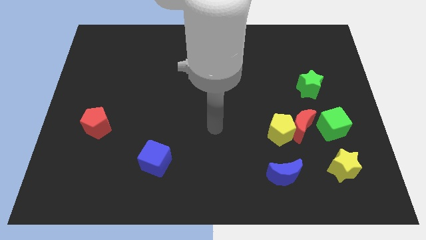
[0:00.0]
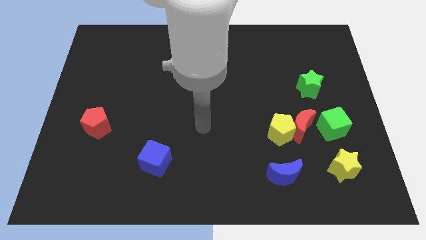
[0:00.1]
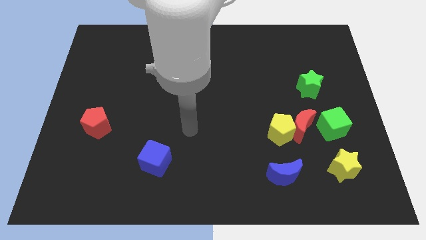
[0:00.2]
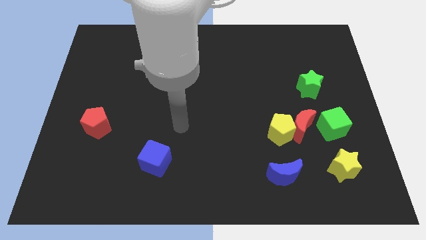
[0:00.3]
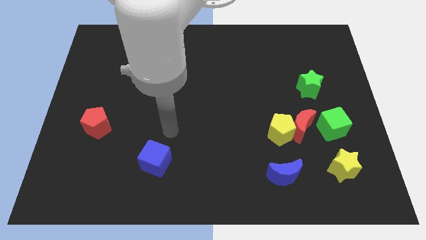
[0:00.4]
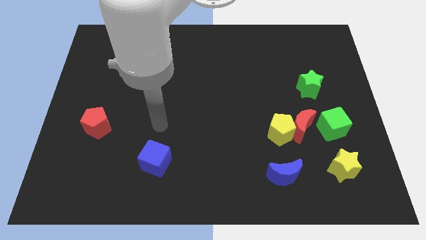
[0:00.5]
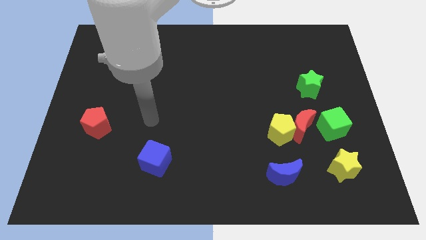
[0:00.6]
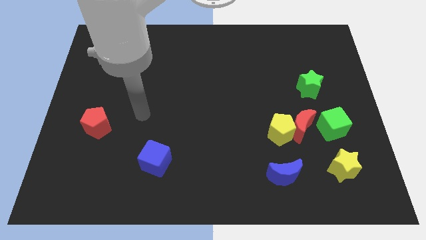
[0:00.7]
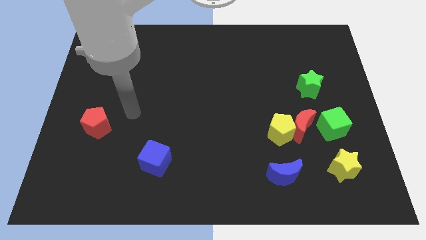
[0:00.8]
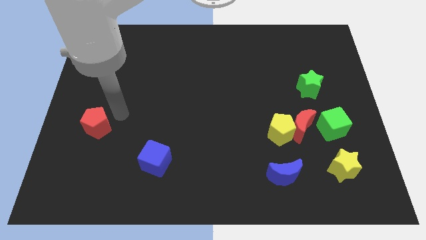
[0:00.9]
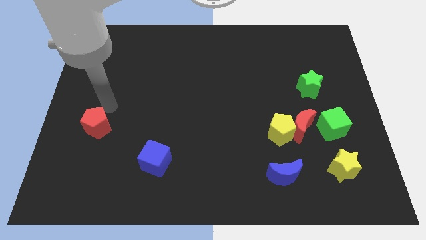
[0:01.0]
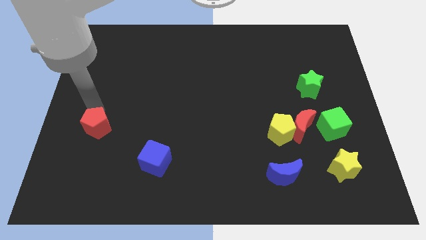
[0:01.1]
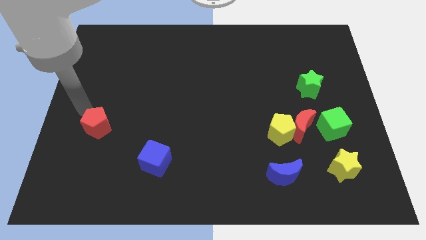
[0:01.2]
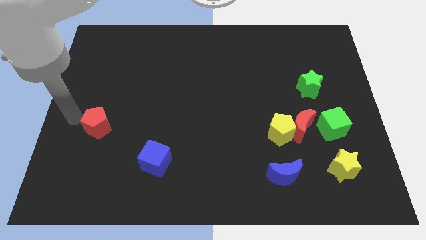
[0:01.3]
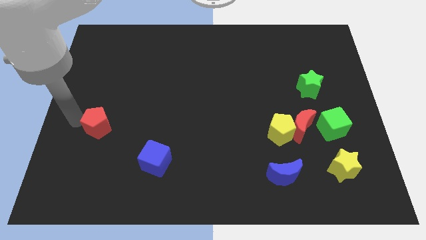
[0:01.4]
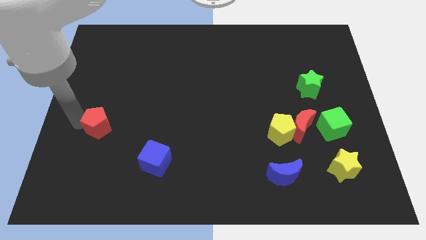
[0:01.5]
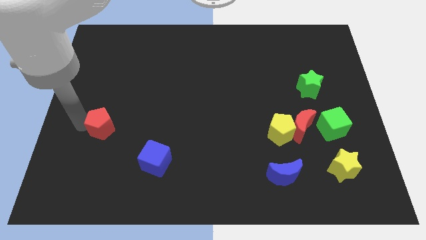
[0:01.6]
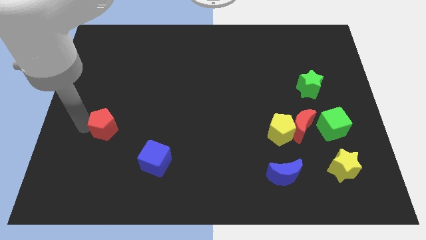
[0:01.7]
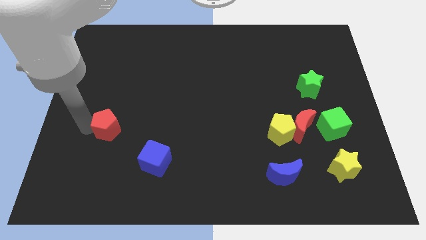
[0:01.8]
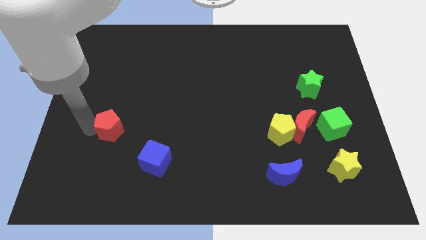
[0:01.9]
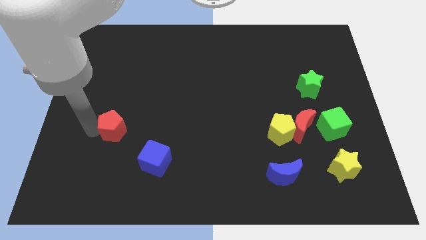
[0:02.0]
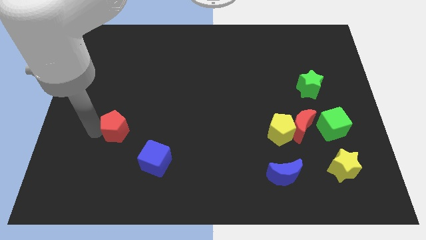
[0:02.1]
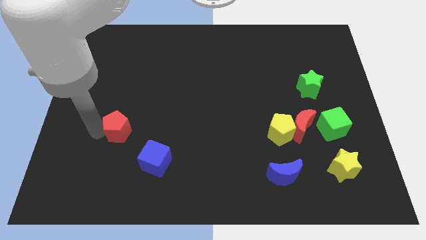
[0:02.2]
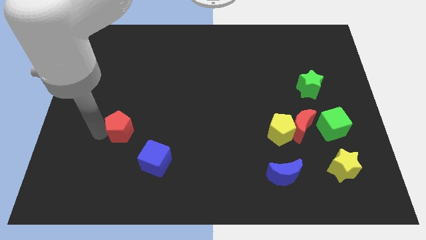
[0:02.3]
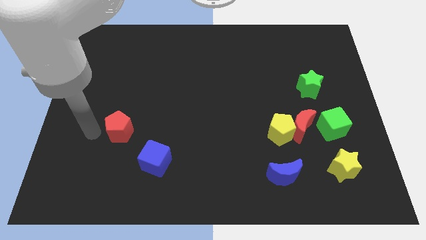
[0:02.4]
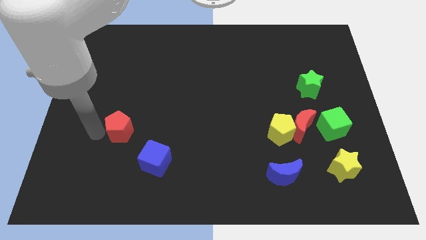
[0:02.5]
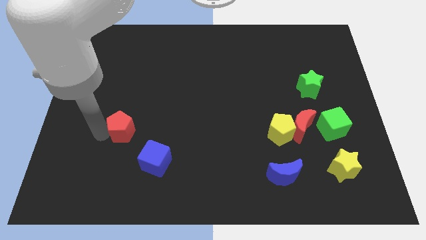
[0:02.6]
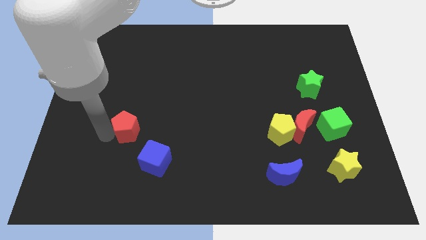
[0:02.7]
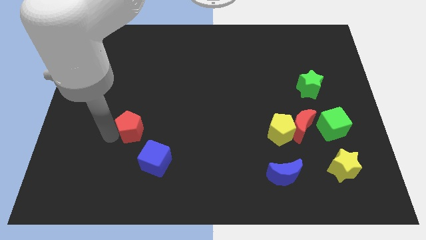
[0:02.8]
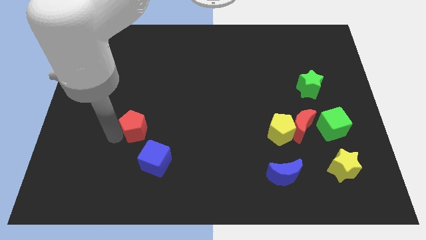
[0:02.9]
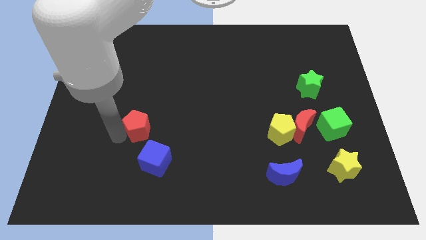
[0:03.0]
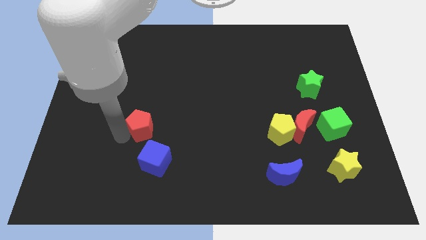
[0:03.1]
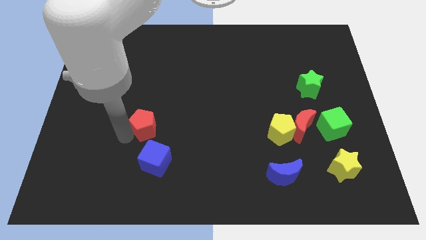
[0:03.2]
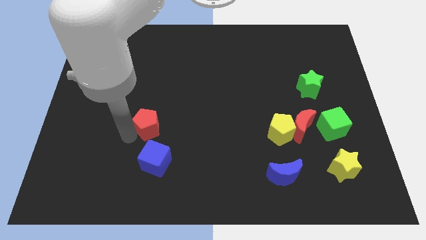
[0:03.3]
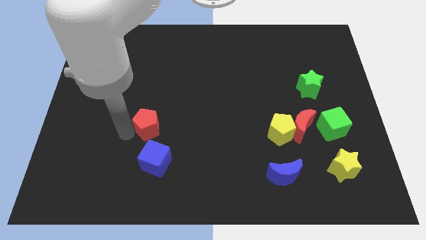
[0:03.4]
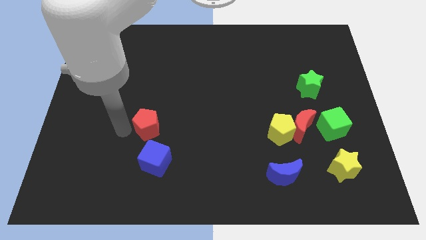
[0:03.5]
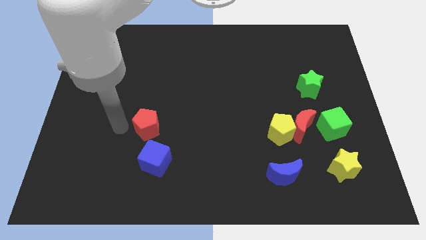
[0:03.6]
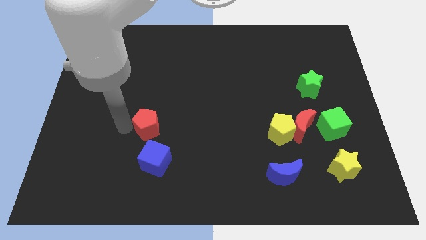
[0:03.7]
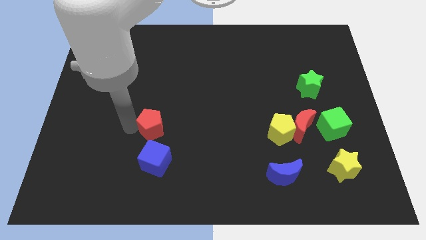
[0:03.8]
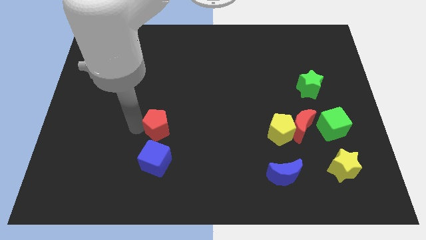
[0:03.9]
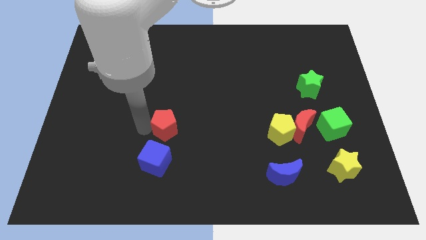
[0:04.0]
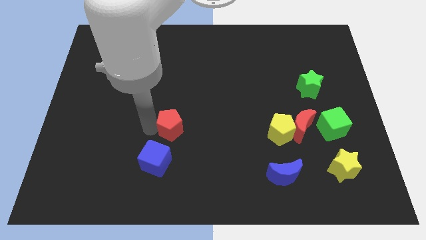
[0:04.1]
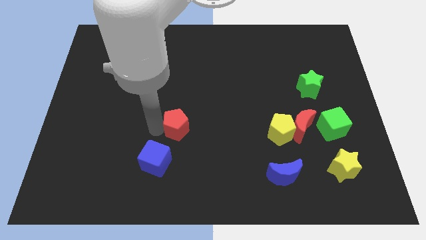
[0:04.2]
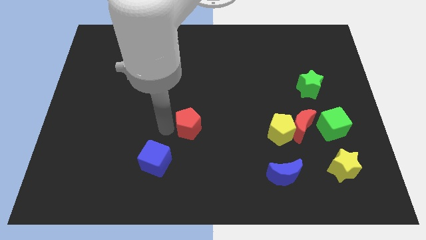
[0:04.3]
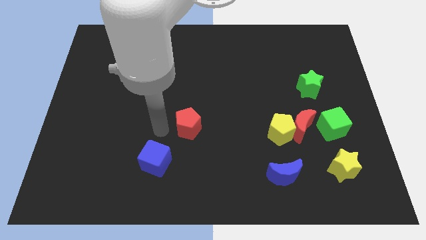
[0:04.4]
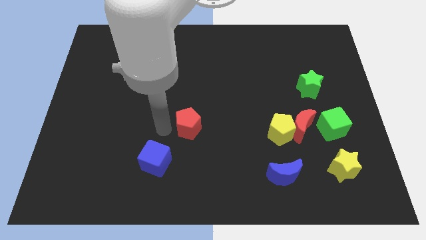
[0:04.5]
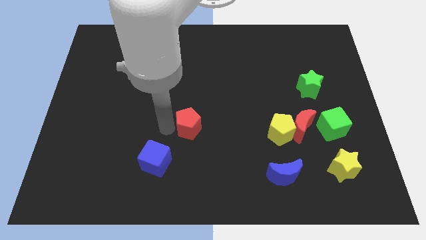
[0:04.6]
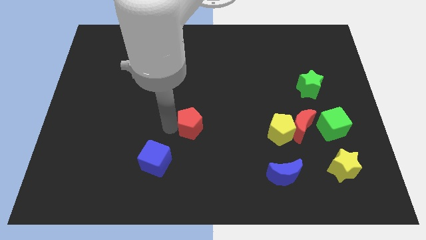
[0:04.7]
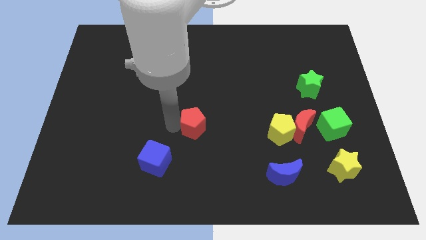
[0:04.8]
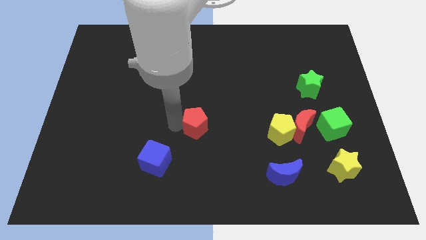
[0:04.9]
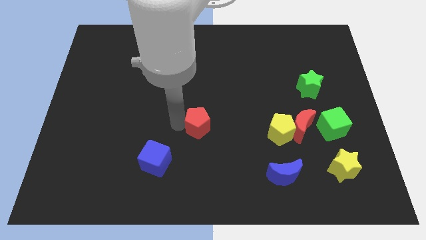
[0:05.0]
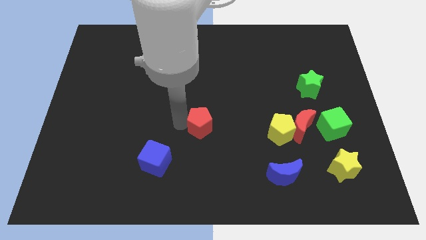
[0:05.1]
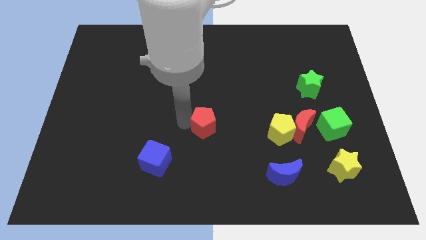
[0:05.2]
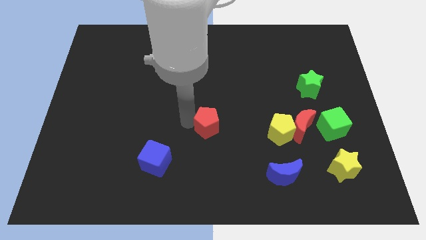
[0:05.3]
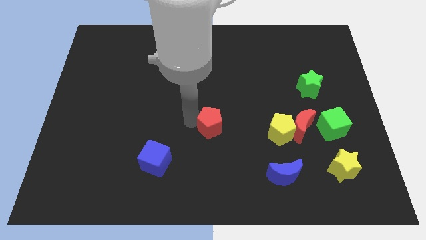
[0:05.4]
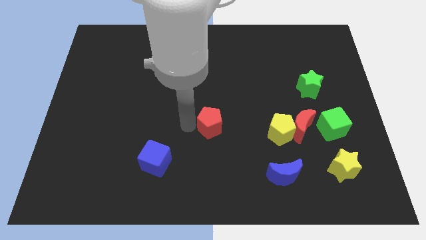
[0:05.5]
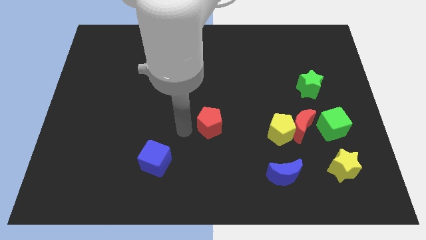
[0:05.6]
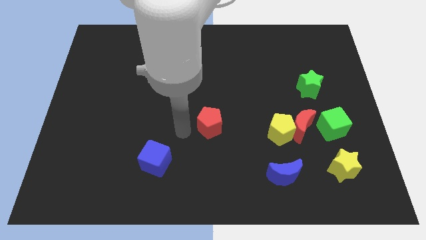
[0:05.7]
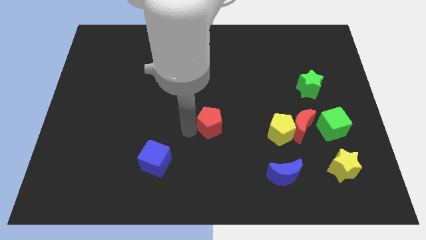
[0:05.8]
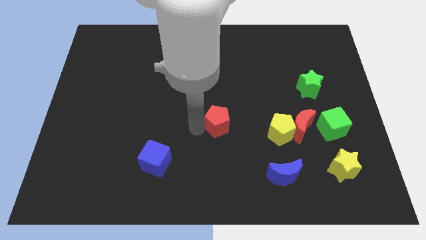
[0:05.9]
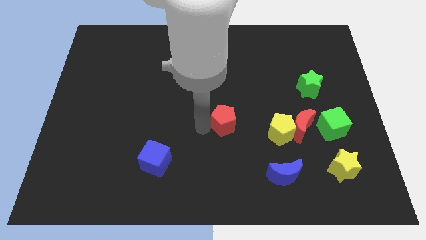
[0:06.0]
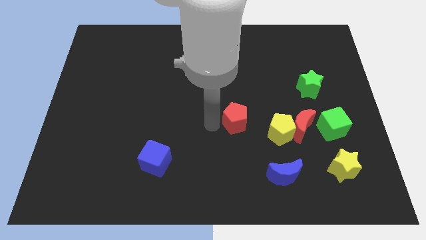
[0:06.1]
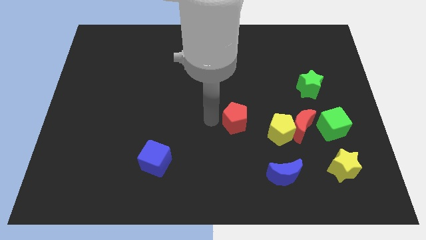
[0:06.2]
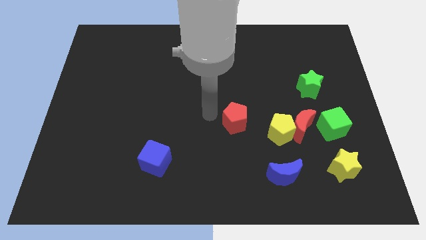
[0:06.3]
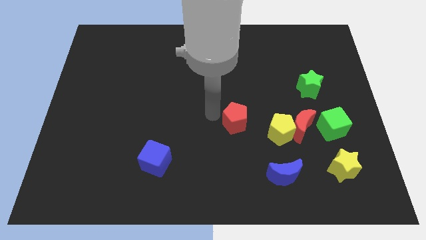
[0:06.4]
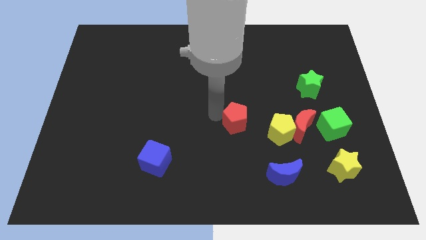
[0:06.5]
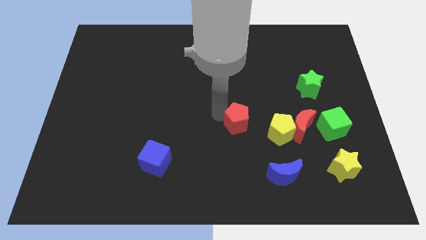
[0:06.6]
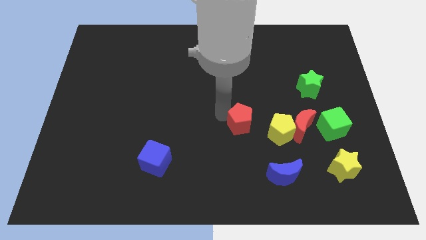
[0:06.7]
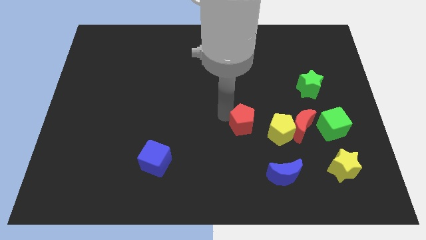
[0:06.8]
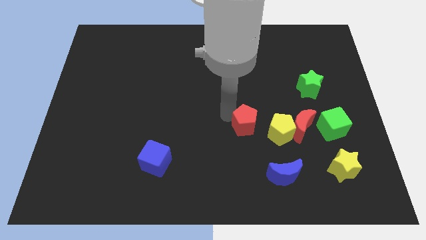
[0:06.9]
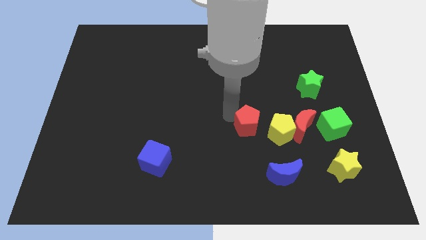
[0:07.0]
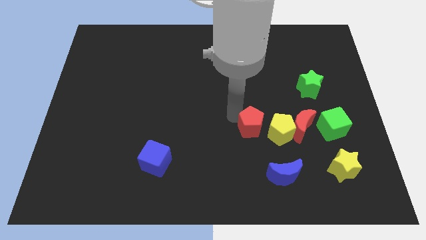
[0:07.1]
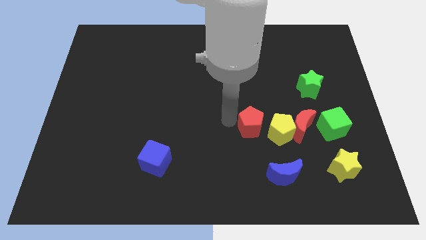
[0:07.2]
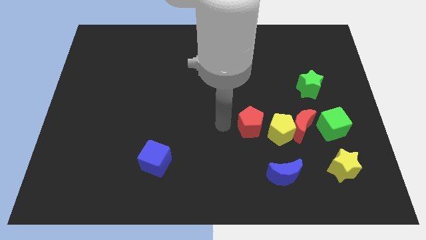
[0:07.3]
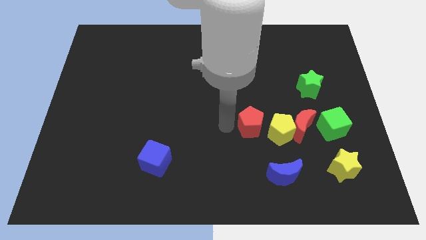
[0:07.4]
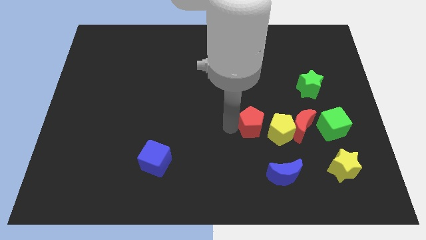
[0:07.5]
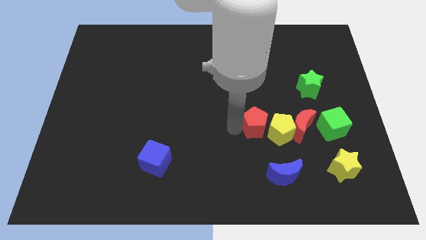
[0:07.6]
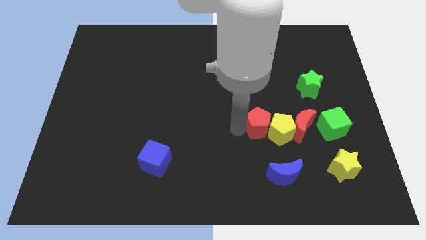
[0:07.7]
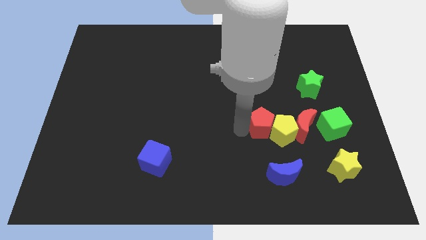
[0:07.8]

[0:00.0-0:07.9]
put the red pentagon to the left of the green cube
